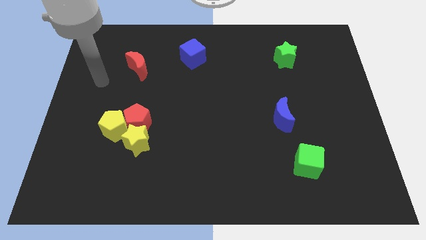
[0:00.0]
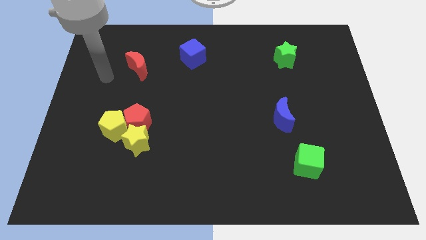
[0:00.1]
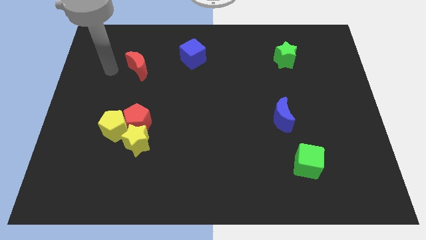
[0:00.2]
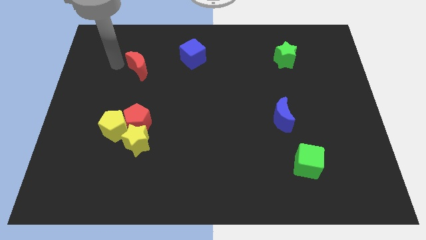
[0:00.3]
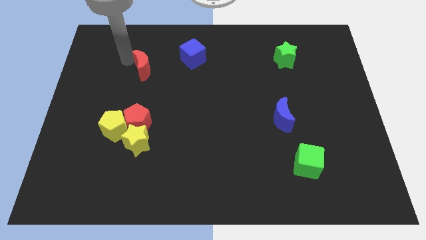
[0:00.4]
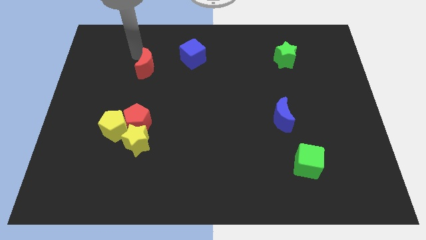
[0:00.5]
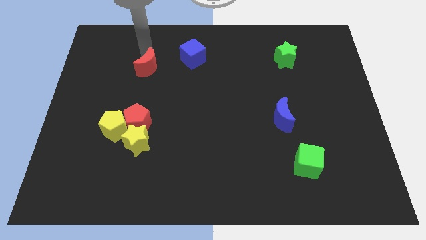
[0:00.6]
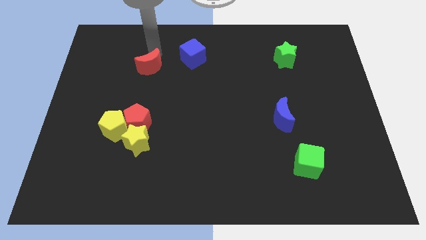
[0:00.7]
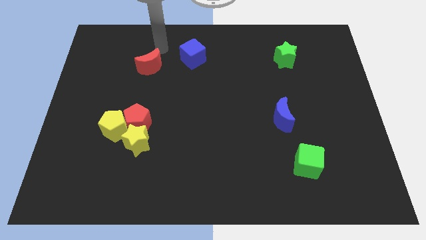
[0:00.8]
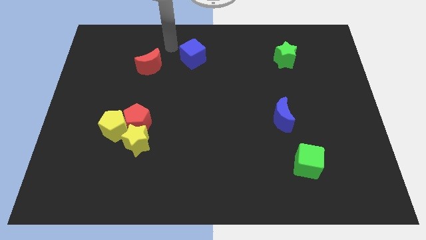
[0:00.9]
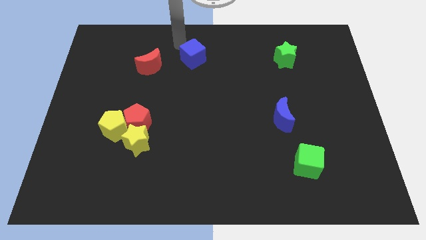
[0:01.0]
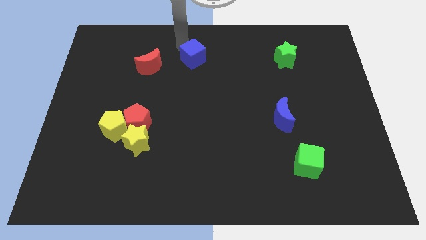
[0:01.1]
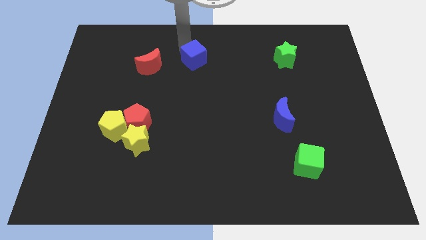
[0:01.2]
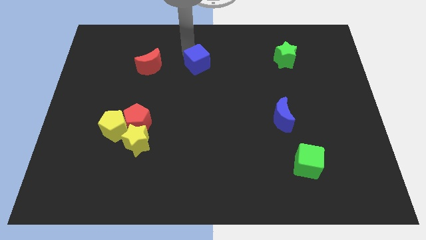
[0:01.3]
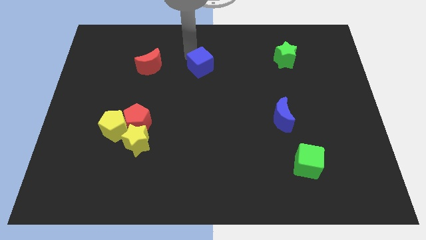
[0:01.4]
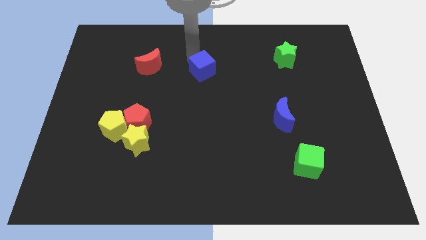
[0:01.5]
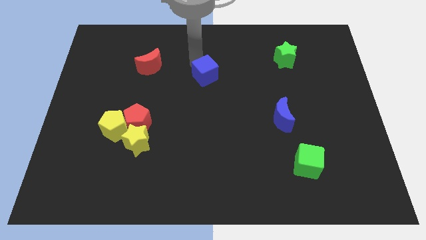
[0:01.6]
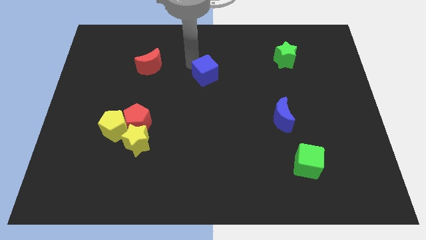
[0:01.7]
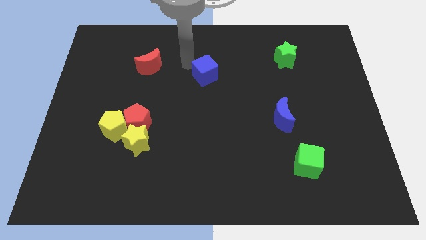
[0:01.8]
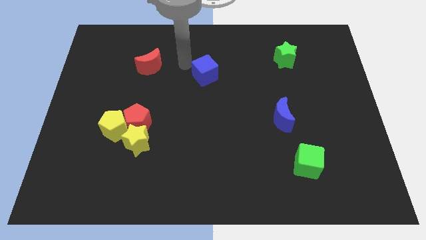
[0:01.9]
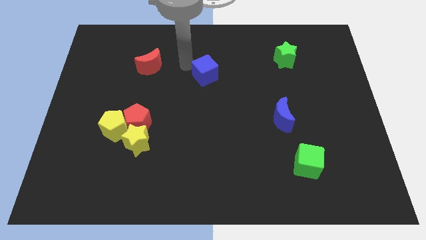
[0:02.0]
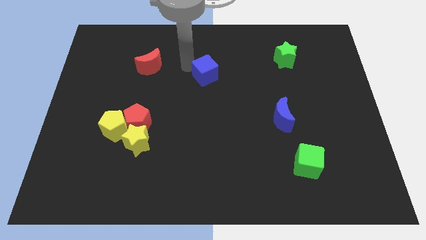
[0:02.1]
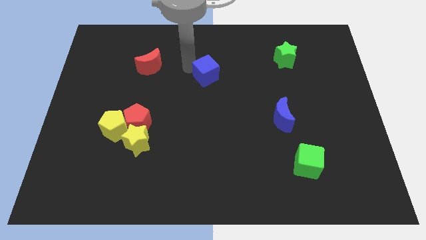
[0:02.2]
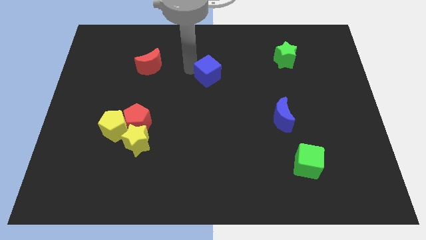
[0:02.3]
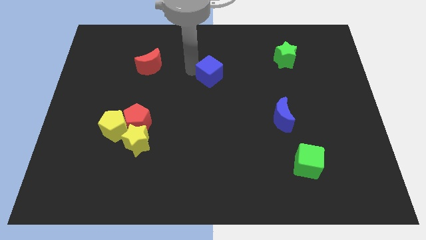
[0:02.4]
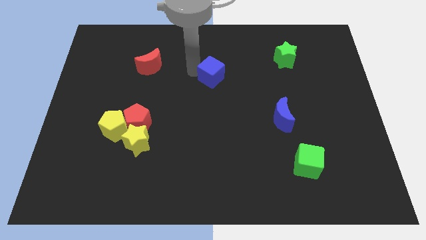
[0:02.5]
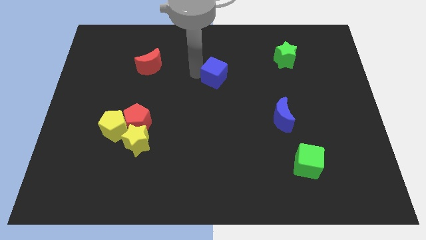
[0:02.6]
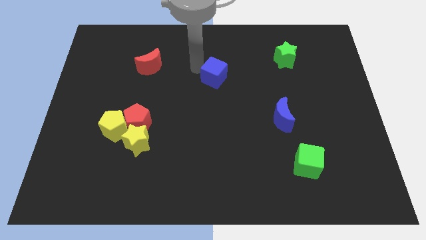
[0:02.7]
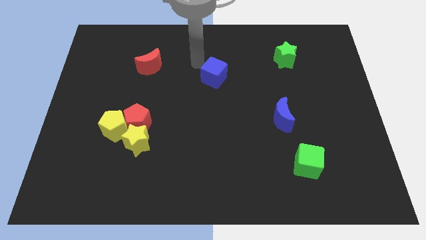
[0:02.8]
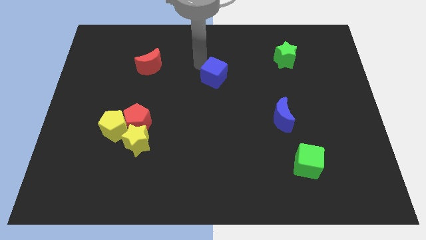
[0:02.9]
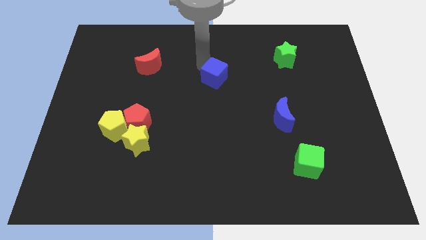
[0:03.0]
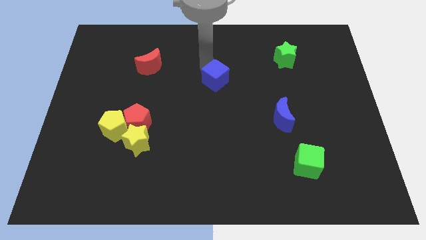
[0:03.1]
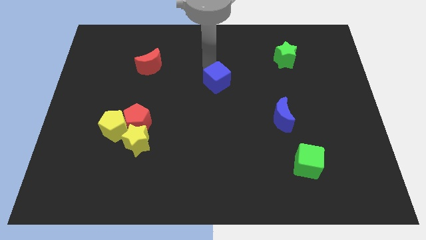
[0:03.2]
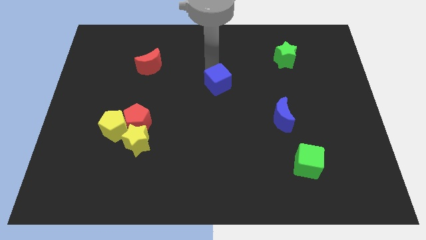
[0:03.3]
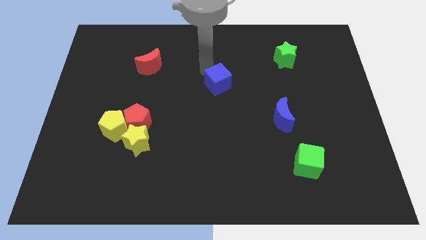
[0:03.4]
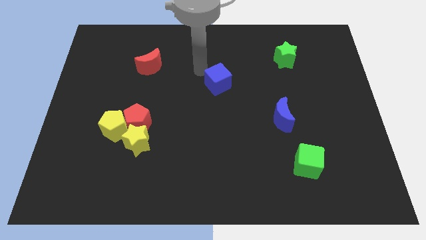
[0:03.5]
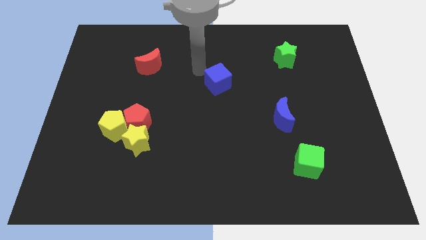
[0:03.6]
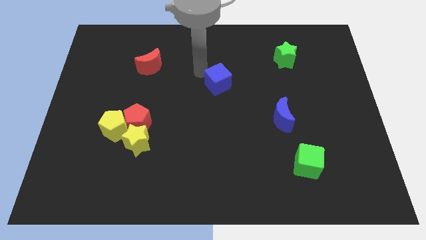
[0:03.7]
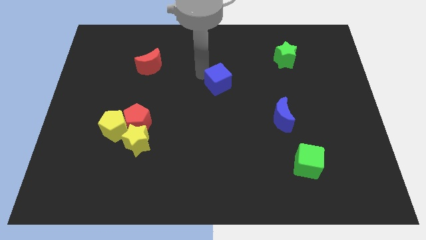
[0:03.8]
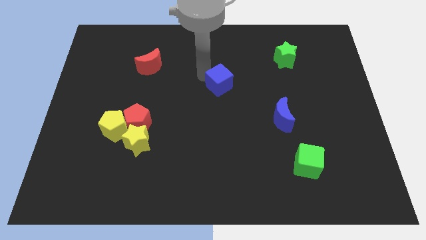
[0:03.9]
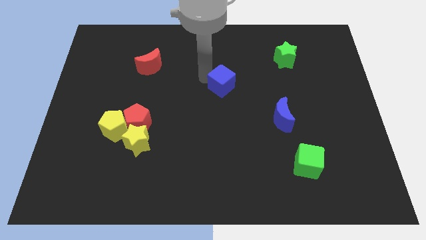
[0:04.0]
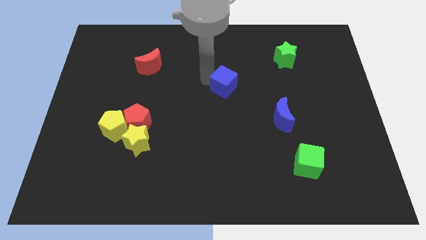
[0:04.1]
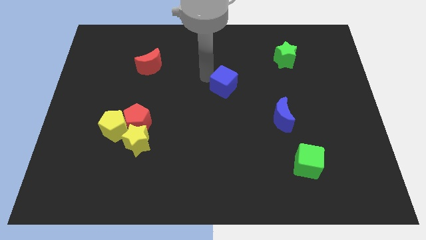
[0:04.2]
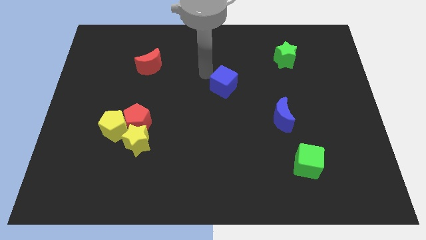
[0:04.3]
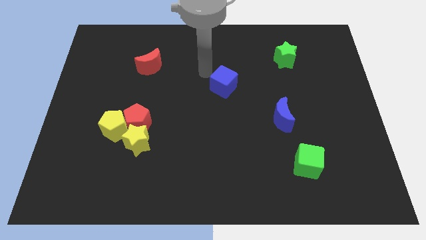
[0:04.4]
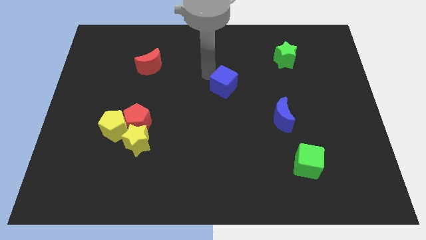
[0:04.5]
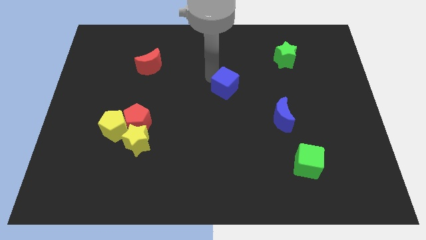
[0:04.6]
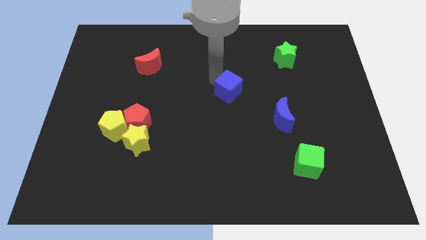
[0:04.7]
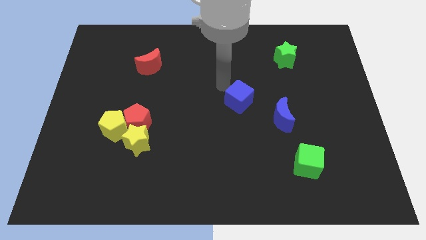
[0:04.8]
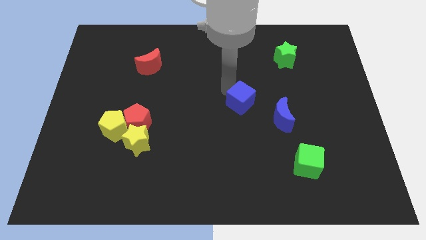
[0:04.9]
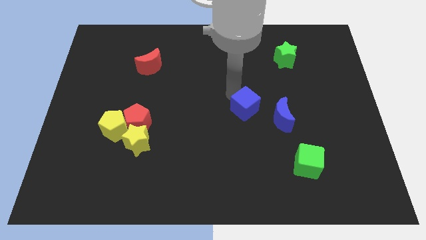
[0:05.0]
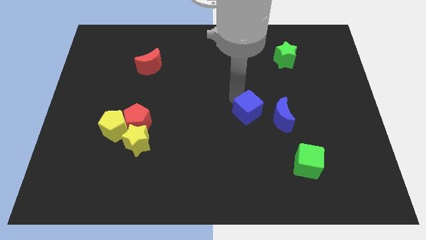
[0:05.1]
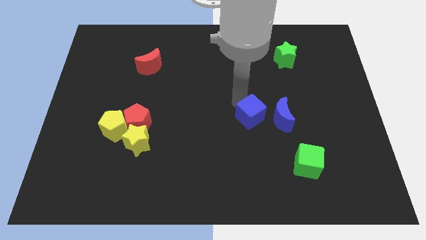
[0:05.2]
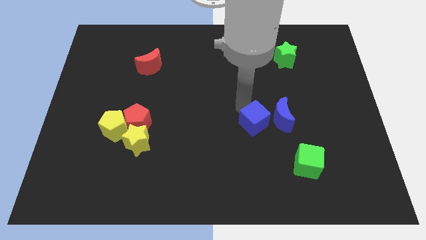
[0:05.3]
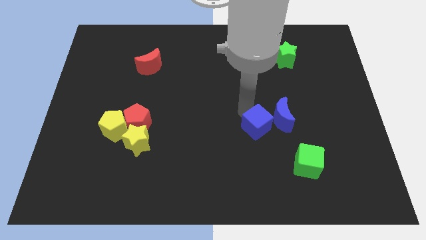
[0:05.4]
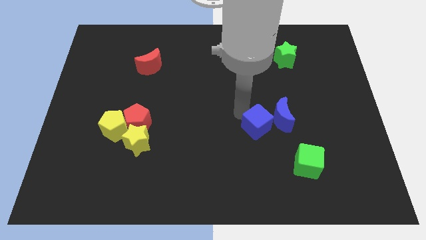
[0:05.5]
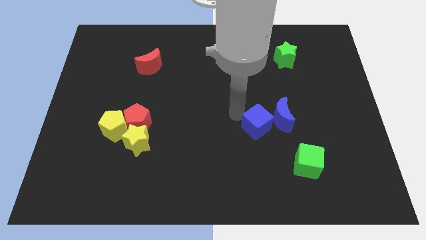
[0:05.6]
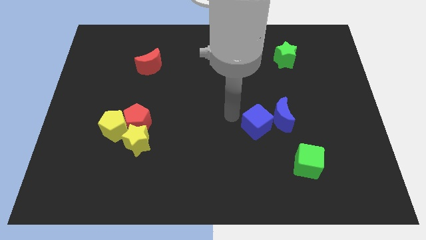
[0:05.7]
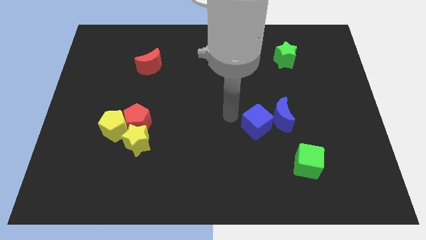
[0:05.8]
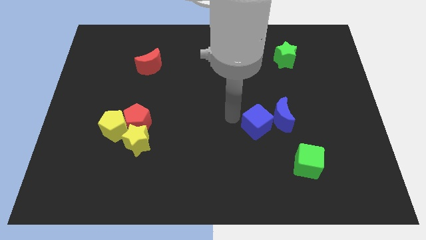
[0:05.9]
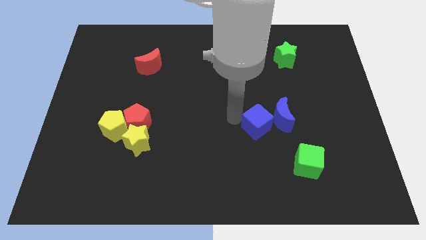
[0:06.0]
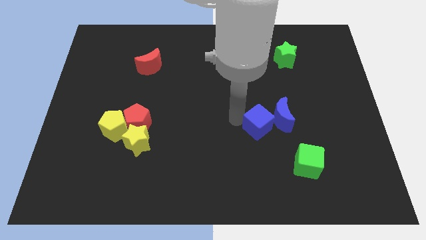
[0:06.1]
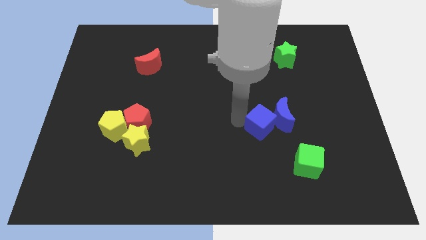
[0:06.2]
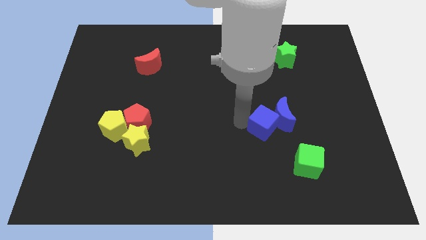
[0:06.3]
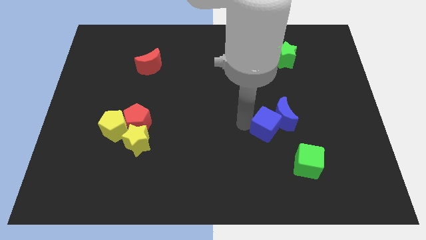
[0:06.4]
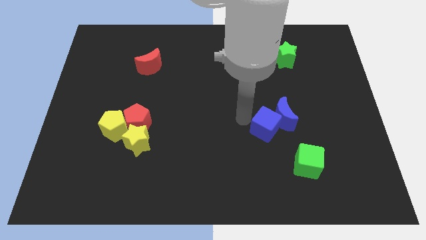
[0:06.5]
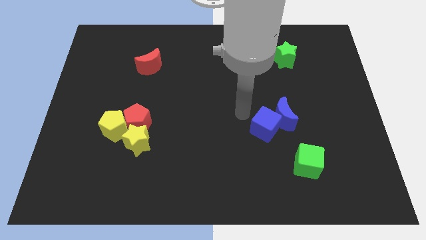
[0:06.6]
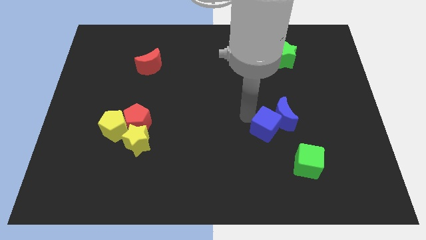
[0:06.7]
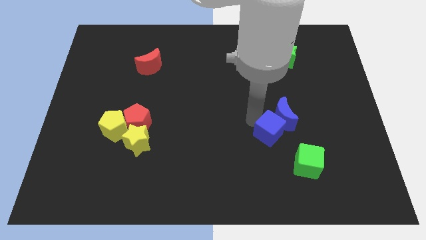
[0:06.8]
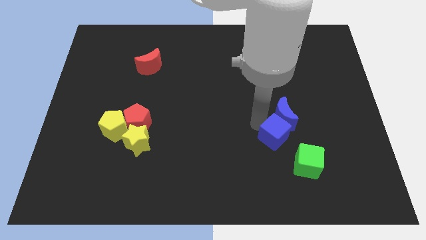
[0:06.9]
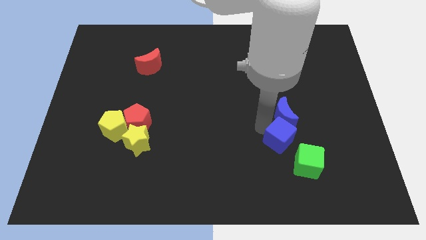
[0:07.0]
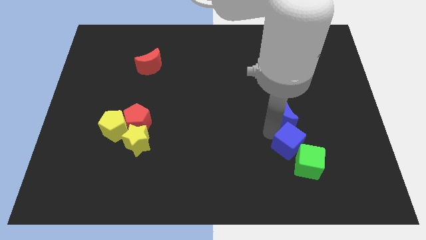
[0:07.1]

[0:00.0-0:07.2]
slide the blue cube next to the green cube

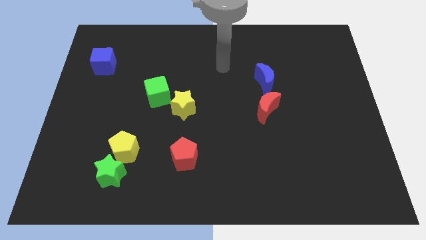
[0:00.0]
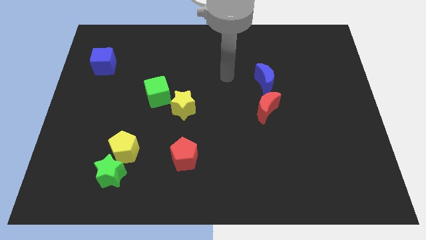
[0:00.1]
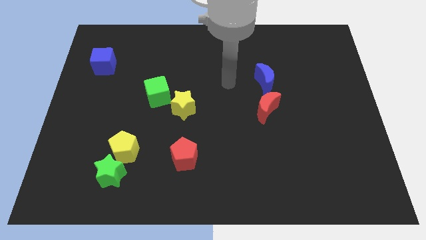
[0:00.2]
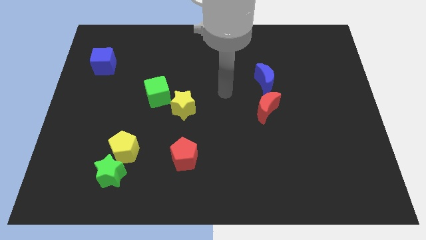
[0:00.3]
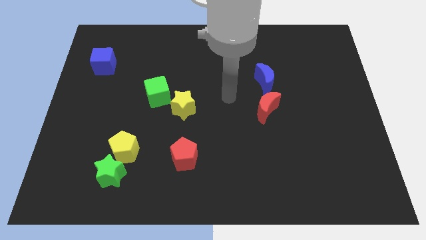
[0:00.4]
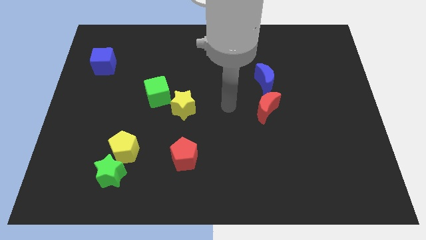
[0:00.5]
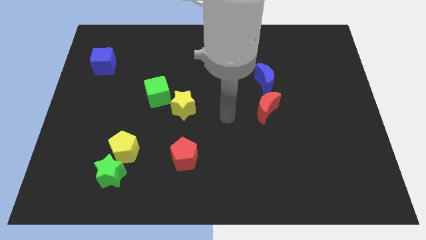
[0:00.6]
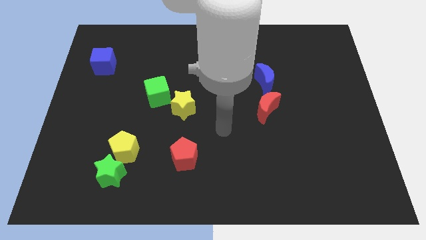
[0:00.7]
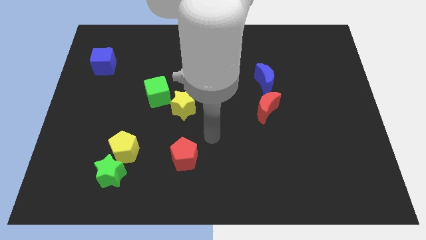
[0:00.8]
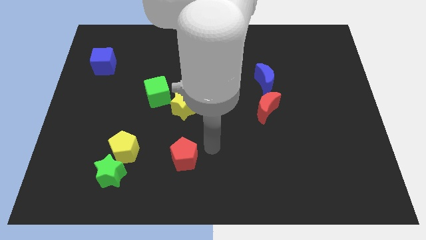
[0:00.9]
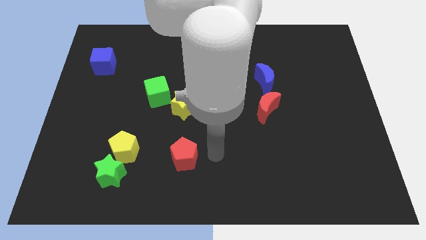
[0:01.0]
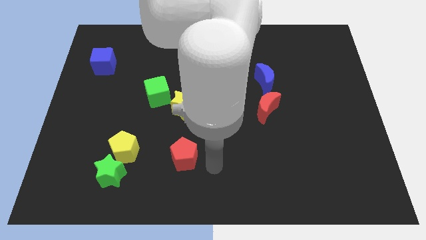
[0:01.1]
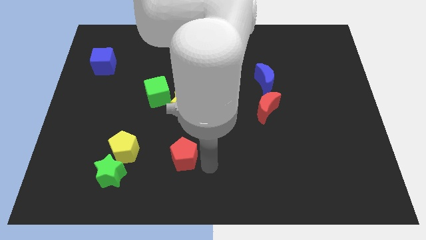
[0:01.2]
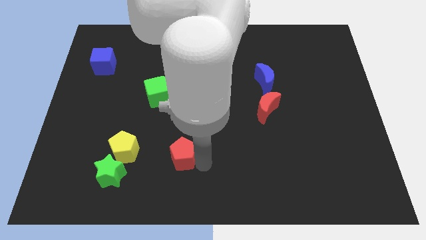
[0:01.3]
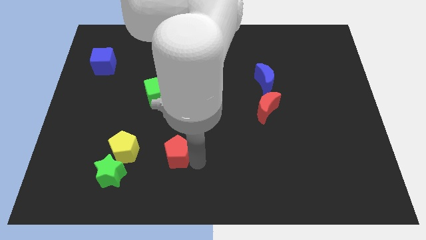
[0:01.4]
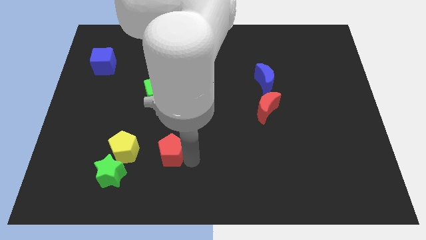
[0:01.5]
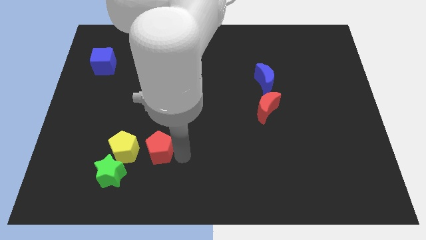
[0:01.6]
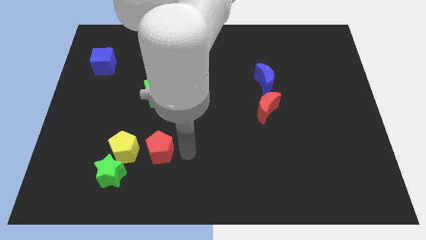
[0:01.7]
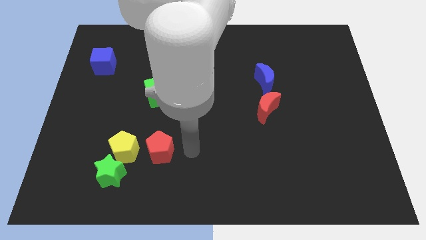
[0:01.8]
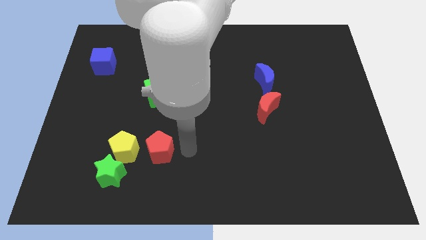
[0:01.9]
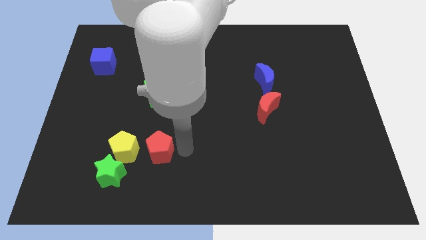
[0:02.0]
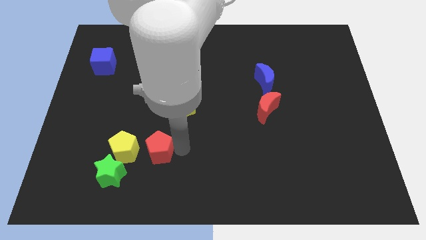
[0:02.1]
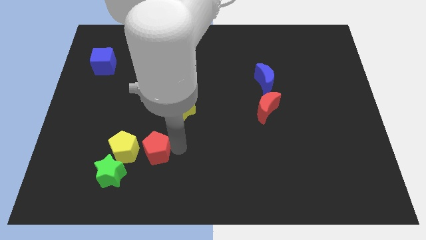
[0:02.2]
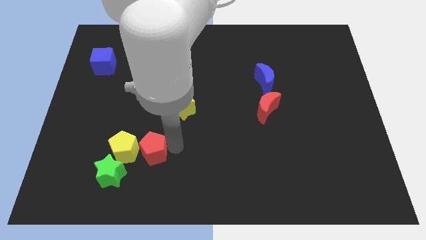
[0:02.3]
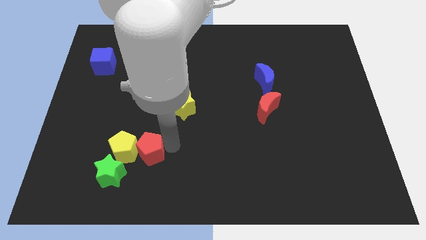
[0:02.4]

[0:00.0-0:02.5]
push the red pentagon towards the yellow pentagon
